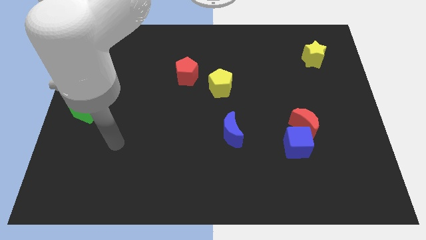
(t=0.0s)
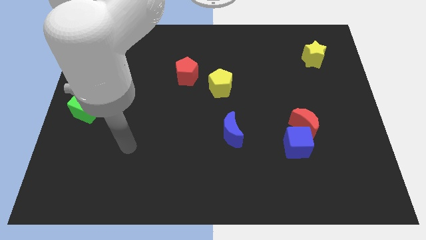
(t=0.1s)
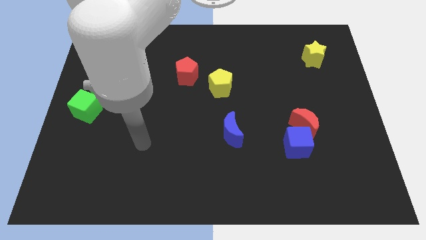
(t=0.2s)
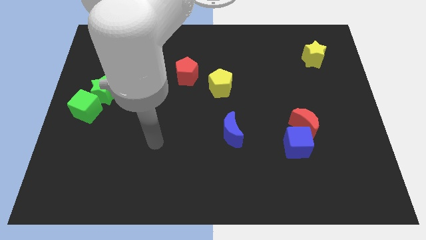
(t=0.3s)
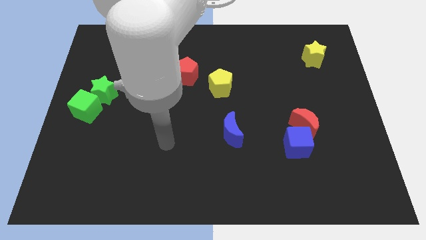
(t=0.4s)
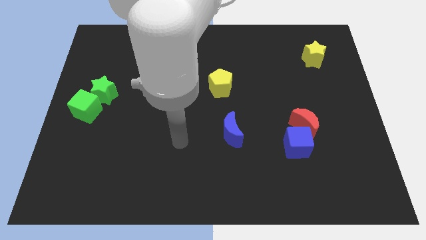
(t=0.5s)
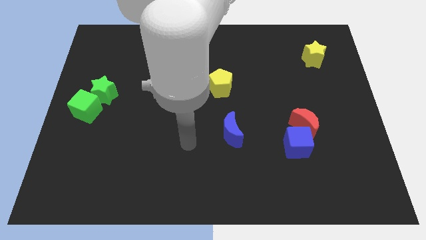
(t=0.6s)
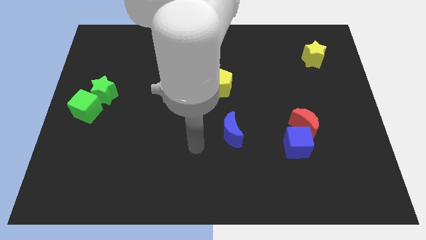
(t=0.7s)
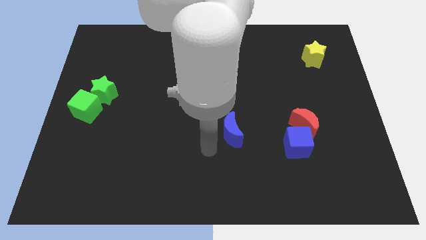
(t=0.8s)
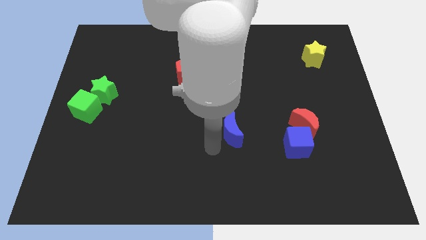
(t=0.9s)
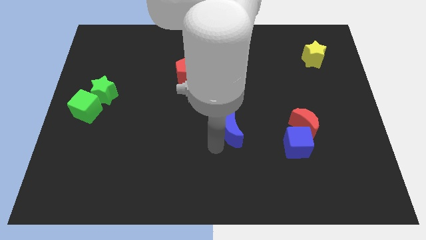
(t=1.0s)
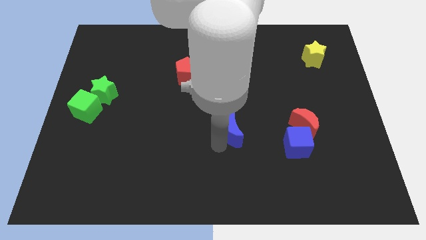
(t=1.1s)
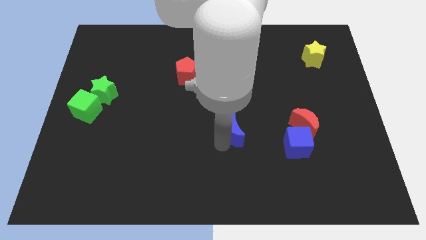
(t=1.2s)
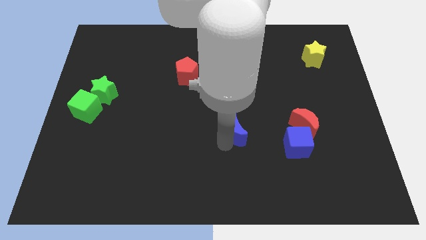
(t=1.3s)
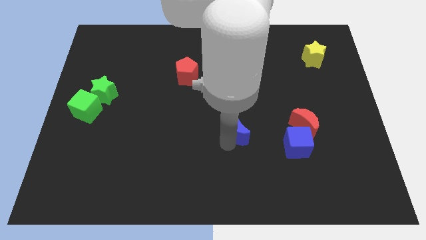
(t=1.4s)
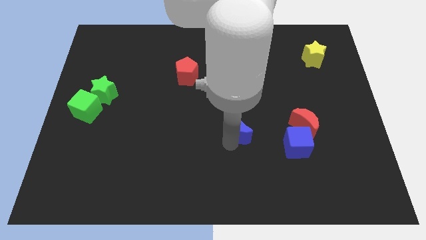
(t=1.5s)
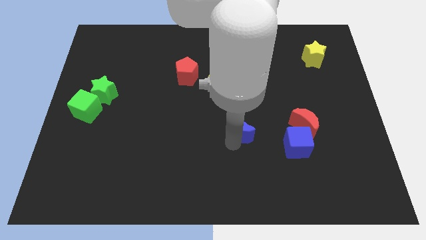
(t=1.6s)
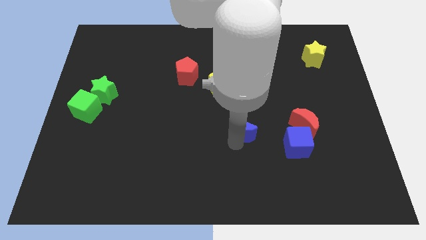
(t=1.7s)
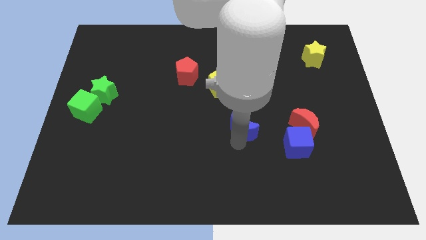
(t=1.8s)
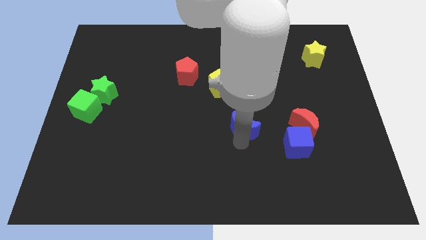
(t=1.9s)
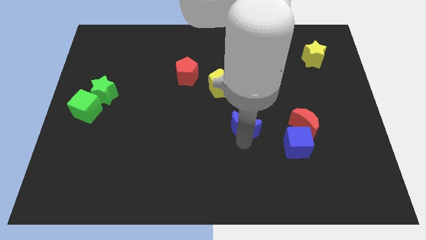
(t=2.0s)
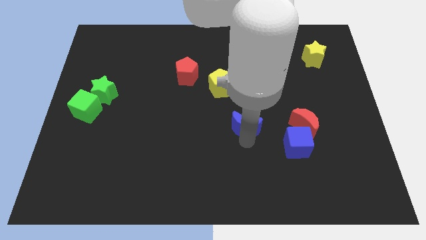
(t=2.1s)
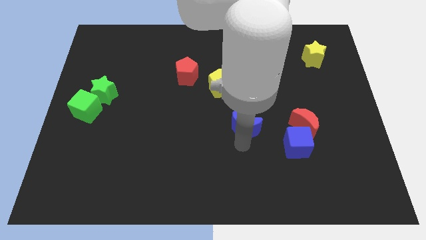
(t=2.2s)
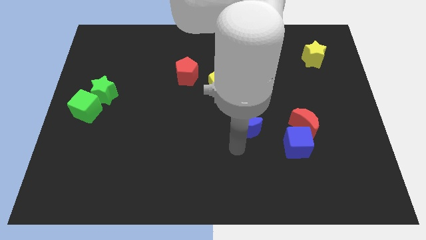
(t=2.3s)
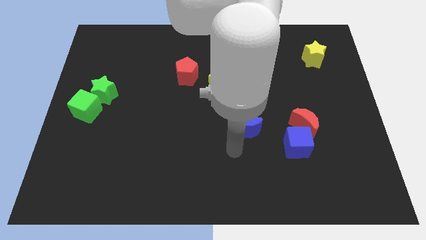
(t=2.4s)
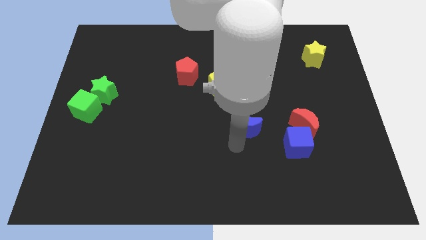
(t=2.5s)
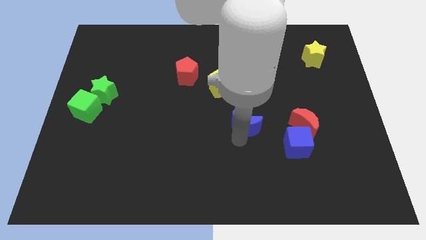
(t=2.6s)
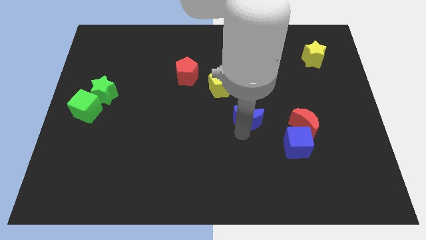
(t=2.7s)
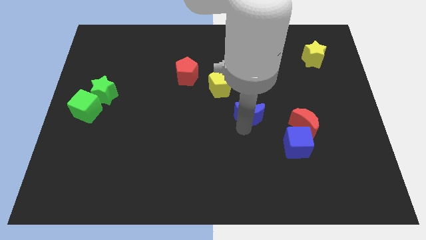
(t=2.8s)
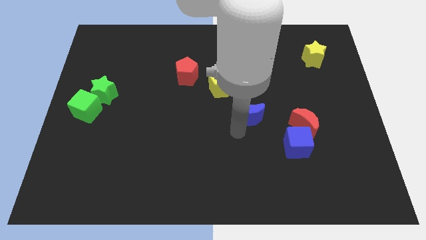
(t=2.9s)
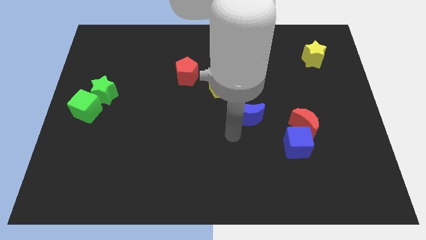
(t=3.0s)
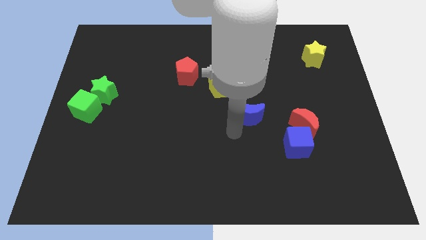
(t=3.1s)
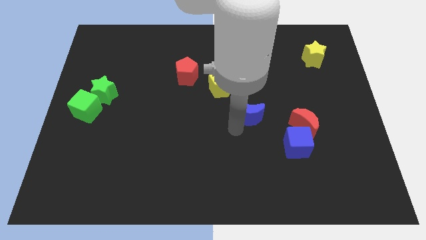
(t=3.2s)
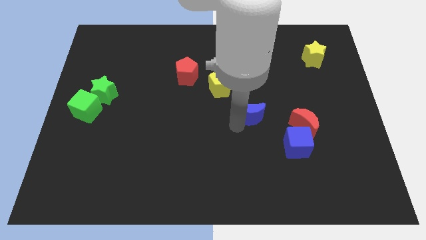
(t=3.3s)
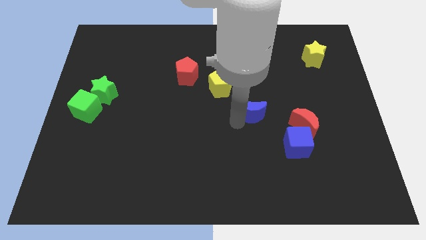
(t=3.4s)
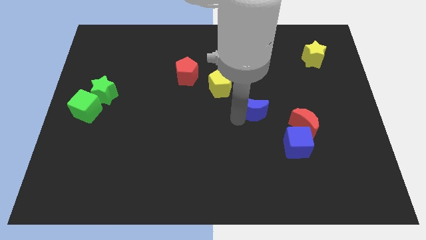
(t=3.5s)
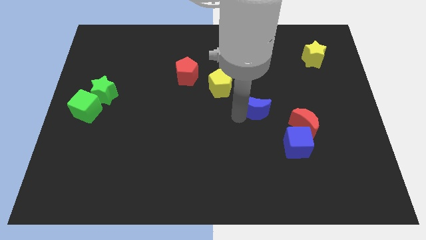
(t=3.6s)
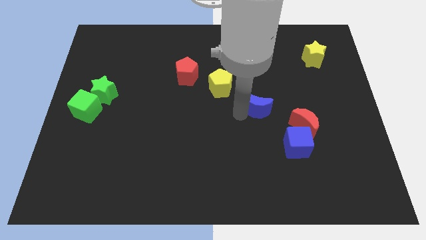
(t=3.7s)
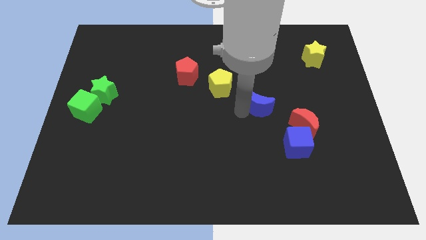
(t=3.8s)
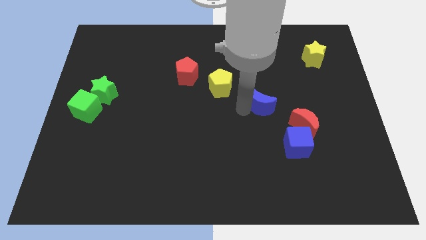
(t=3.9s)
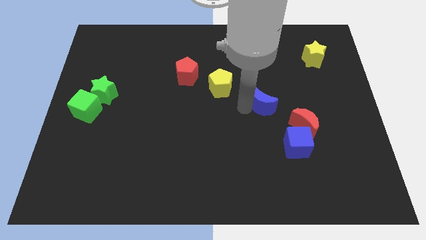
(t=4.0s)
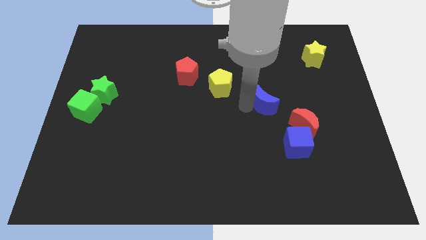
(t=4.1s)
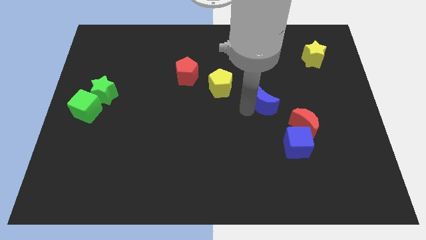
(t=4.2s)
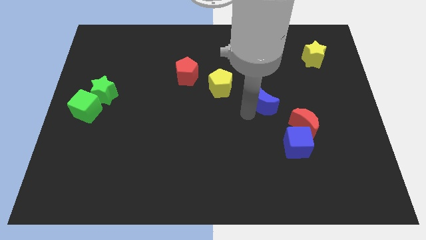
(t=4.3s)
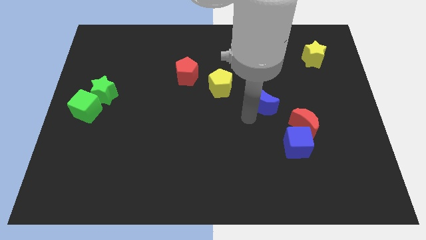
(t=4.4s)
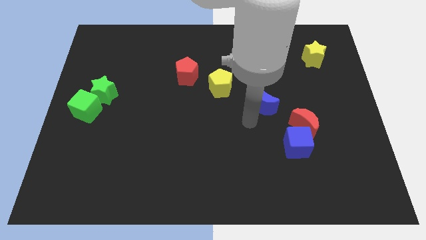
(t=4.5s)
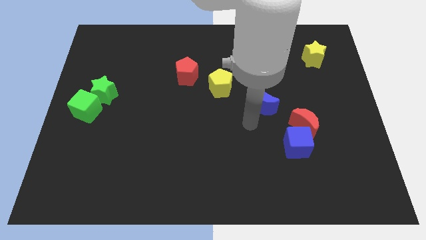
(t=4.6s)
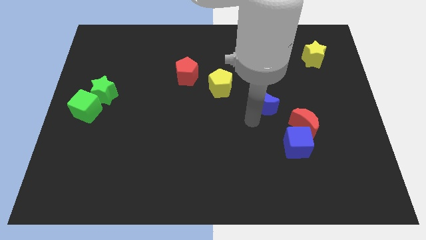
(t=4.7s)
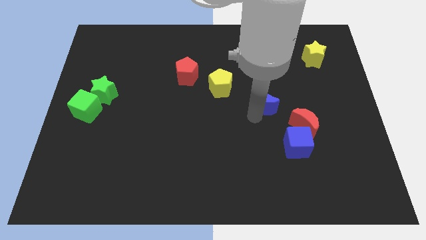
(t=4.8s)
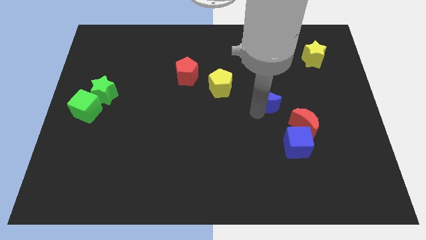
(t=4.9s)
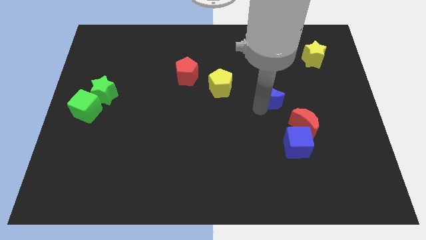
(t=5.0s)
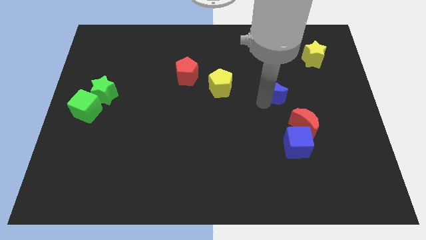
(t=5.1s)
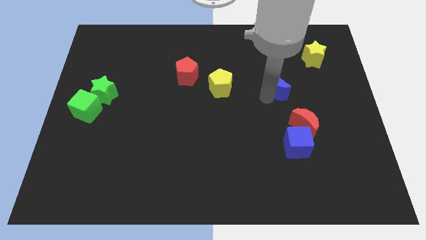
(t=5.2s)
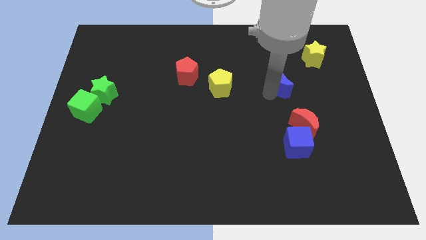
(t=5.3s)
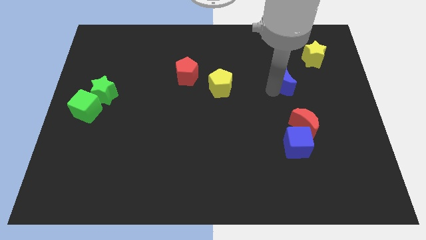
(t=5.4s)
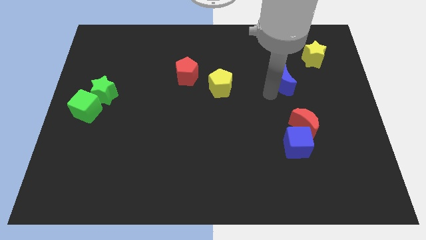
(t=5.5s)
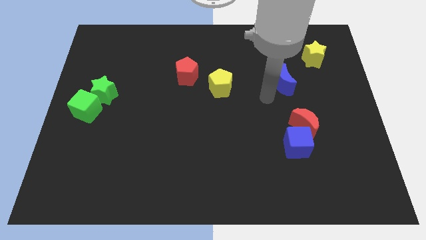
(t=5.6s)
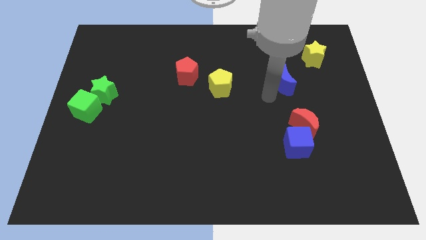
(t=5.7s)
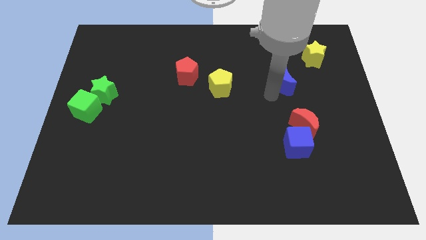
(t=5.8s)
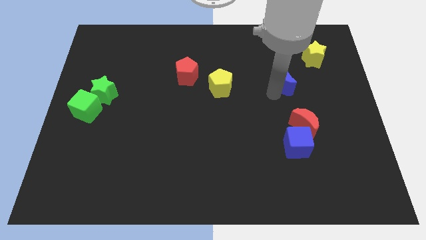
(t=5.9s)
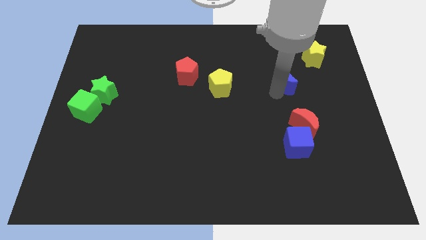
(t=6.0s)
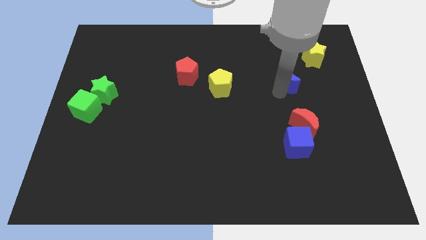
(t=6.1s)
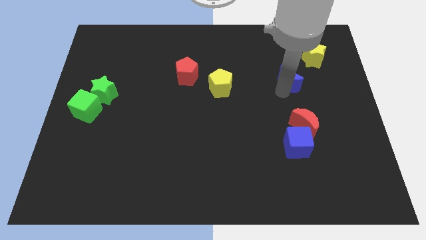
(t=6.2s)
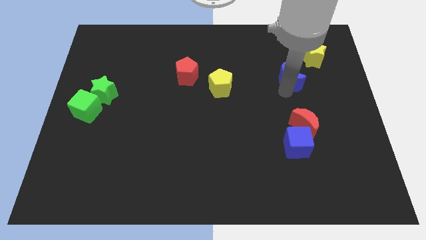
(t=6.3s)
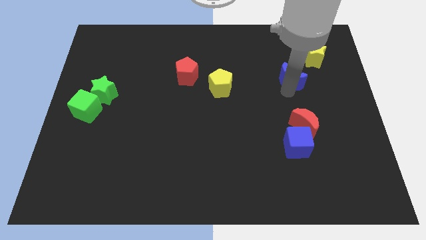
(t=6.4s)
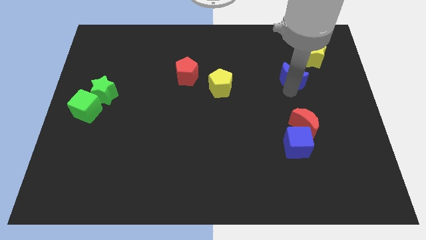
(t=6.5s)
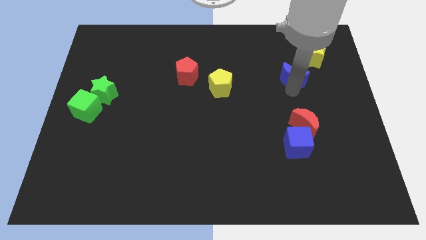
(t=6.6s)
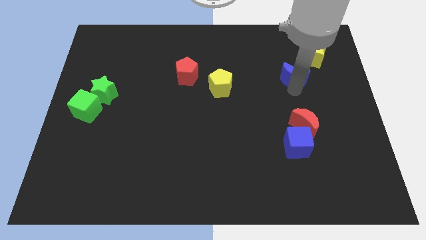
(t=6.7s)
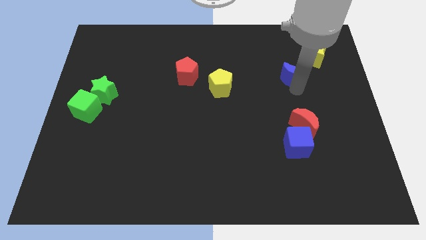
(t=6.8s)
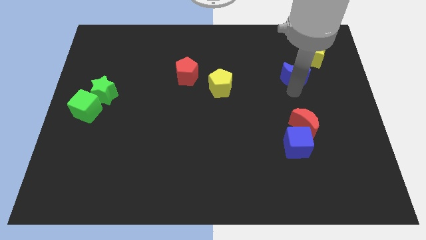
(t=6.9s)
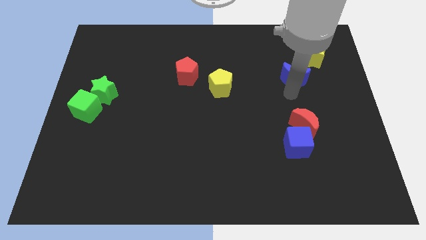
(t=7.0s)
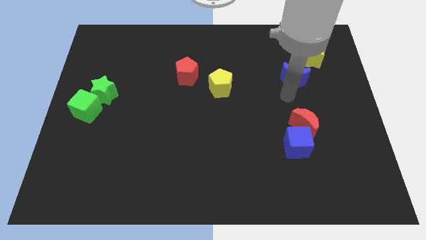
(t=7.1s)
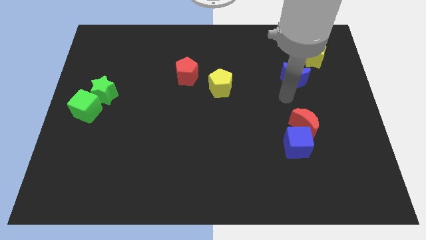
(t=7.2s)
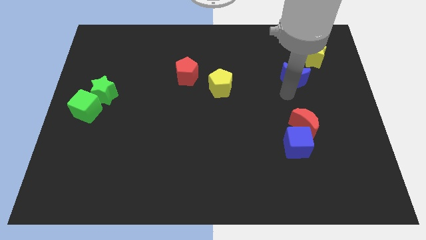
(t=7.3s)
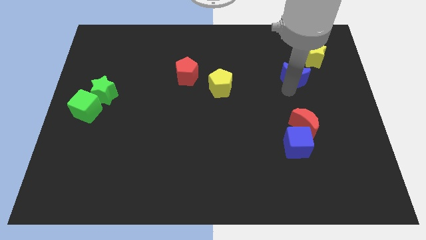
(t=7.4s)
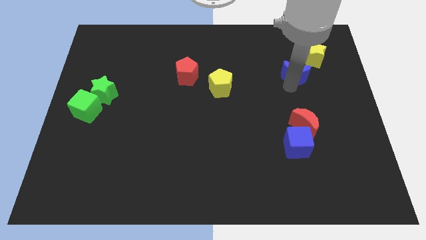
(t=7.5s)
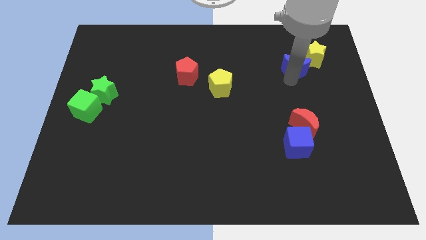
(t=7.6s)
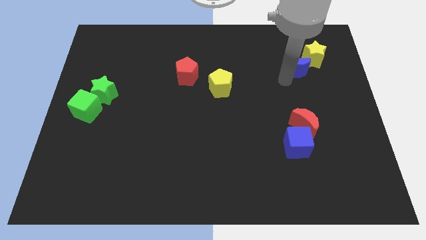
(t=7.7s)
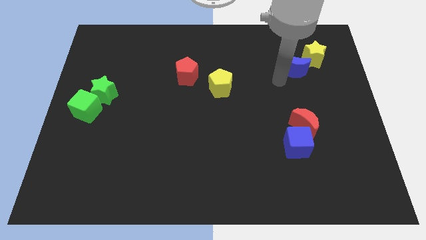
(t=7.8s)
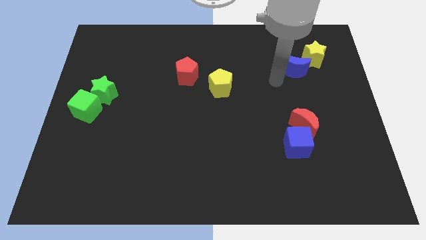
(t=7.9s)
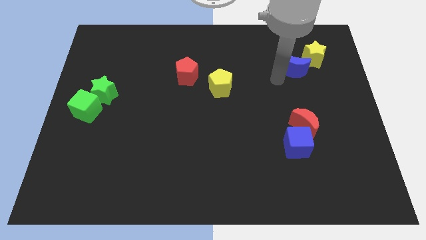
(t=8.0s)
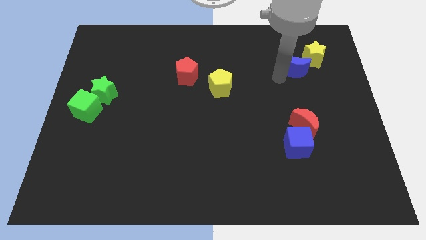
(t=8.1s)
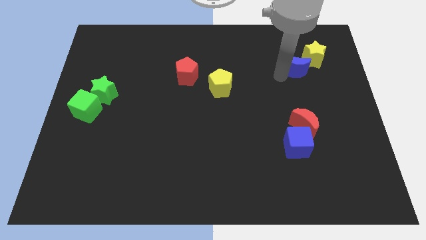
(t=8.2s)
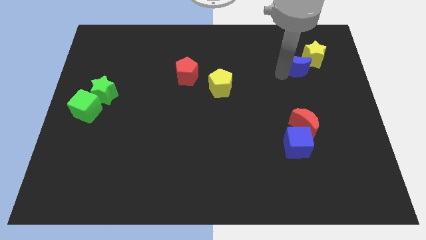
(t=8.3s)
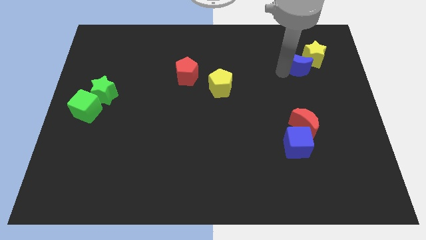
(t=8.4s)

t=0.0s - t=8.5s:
put the blue moon close to the yellow star
